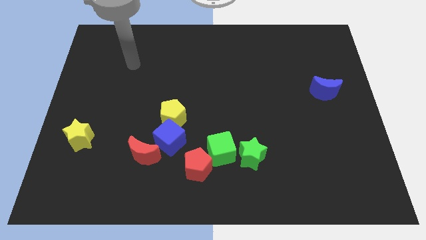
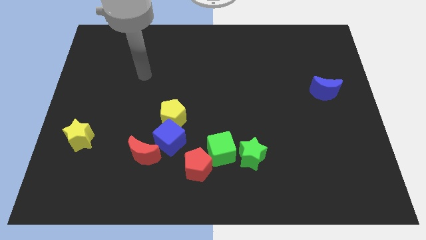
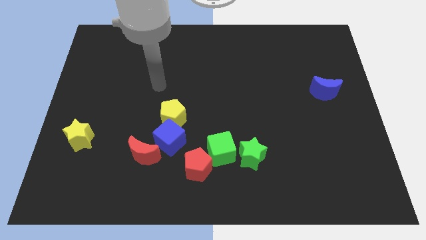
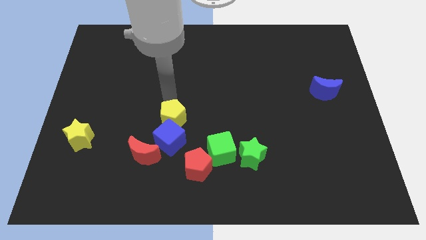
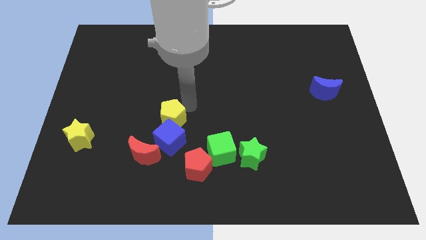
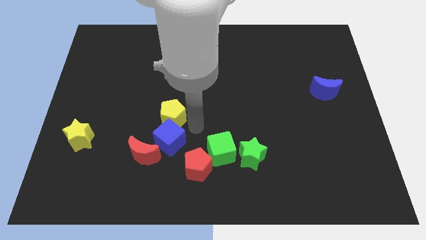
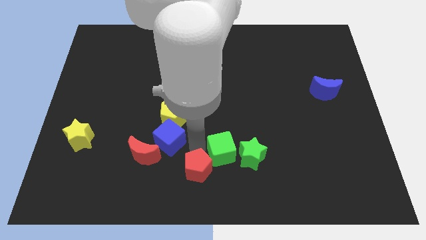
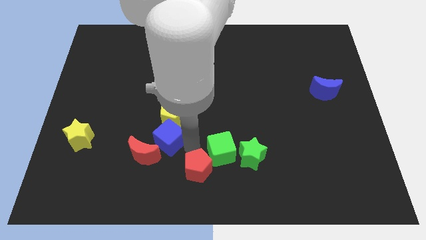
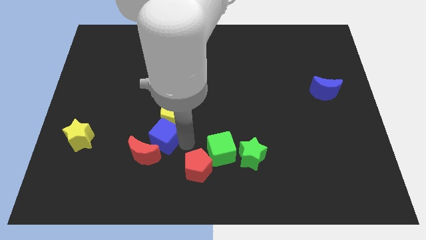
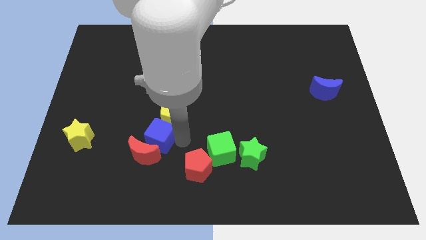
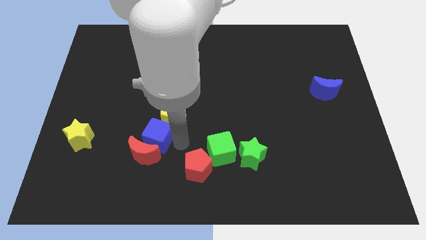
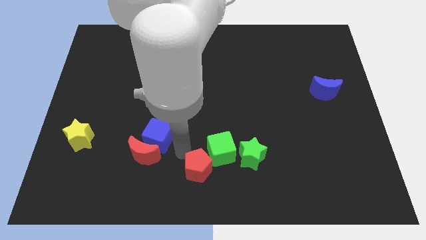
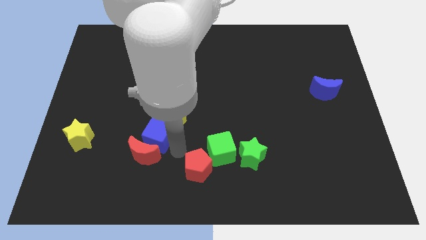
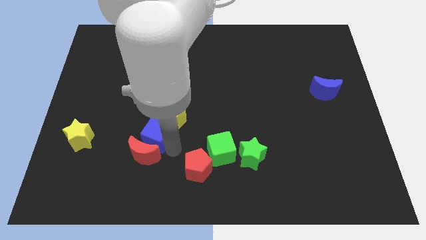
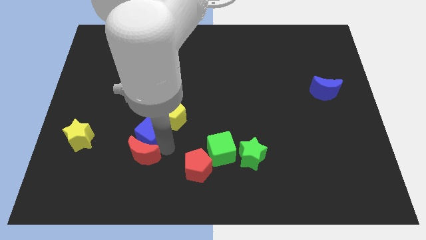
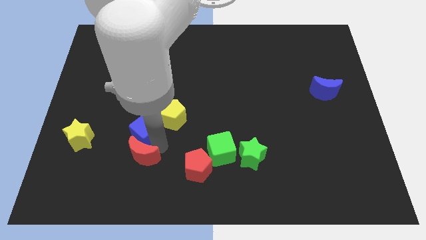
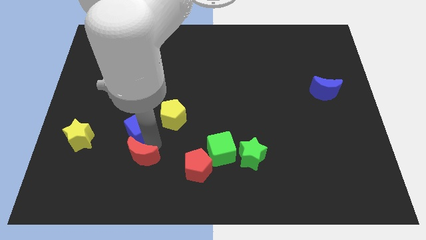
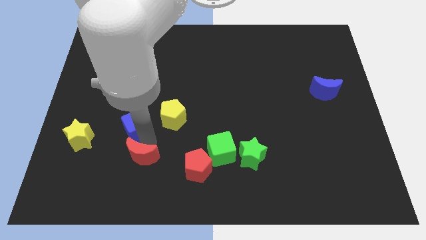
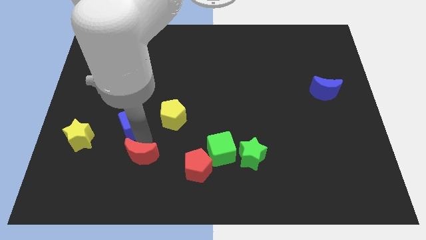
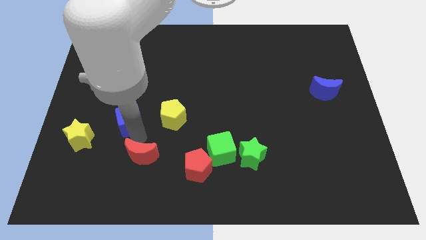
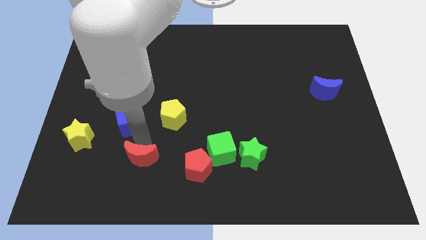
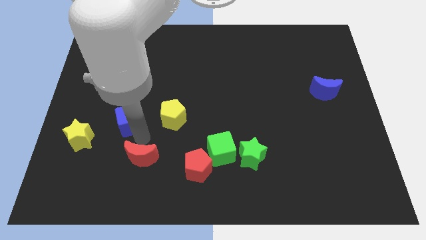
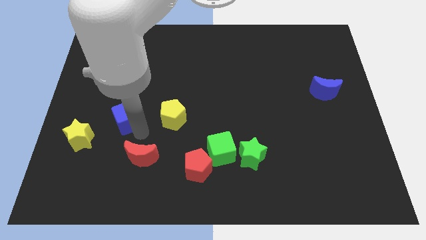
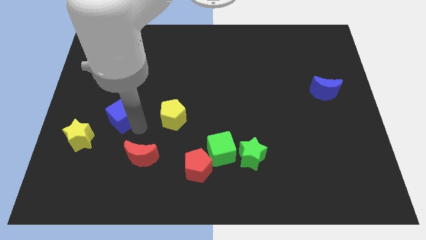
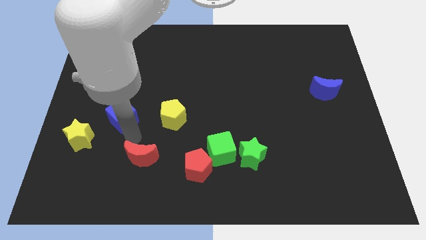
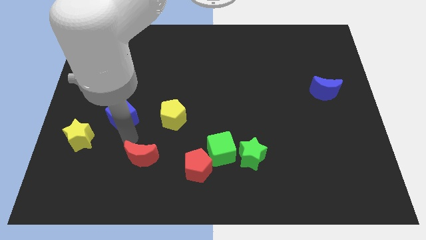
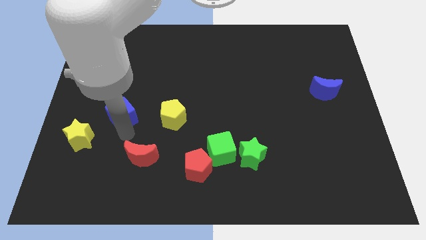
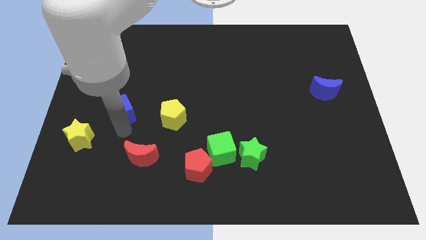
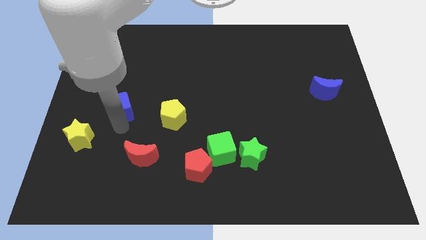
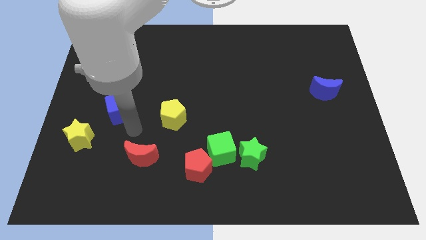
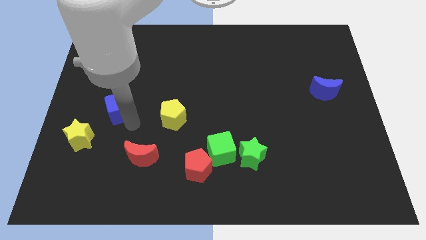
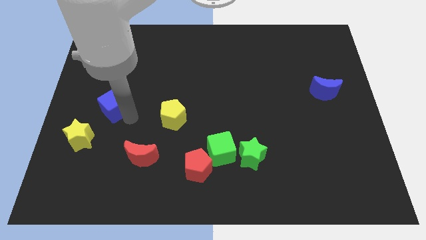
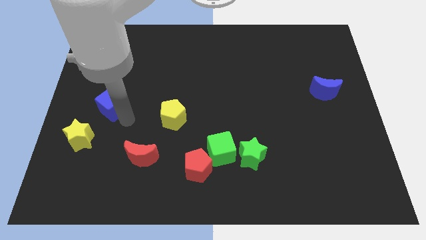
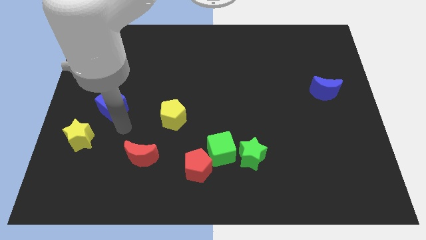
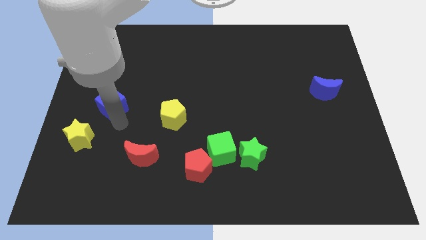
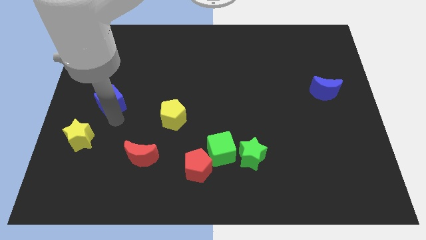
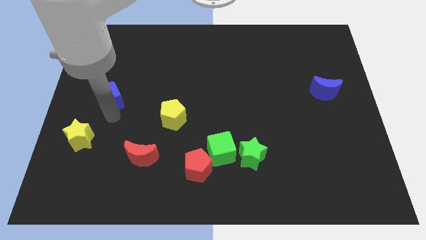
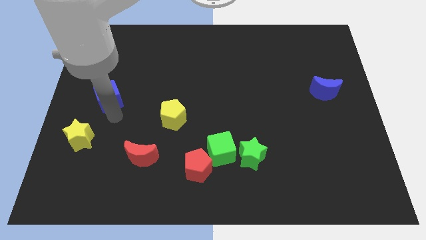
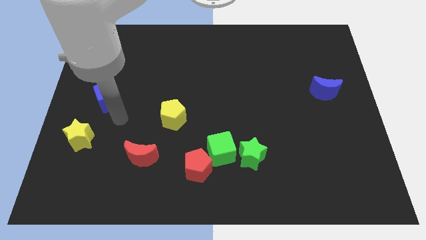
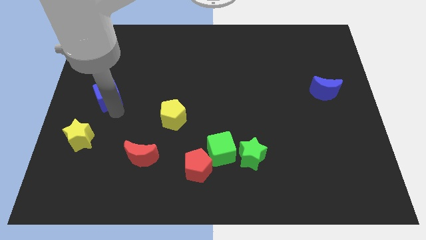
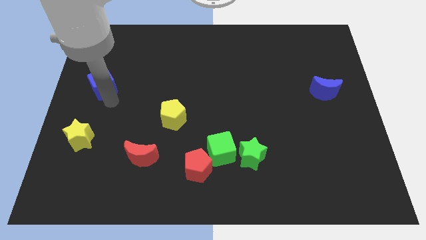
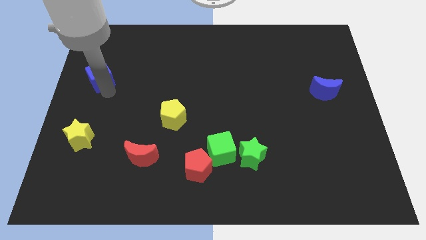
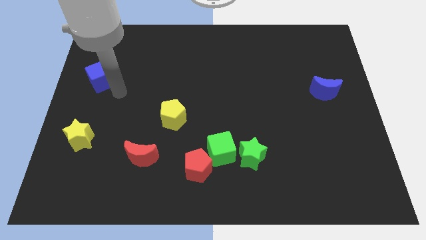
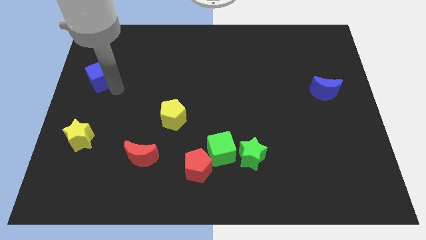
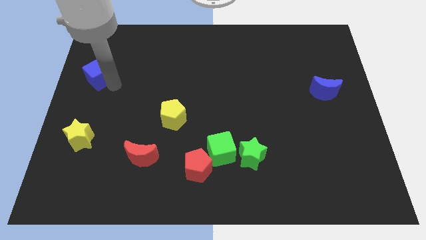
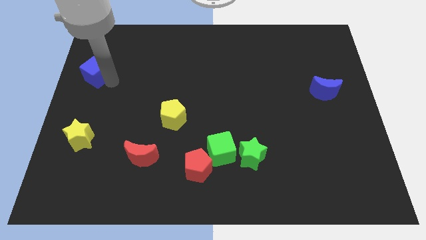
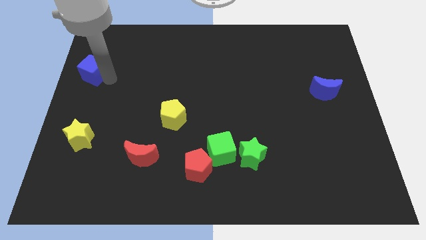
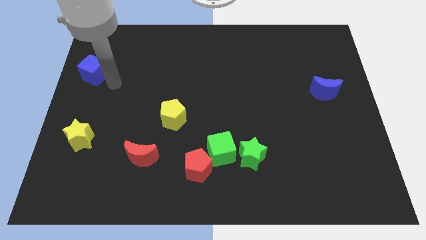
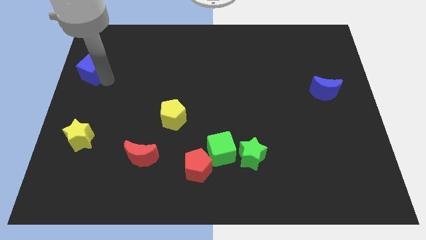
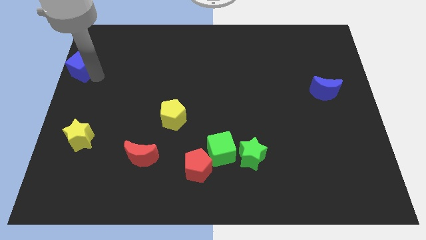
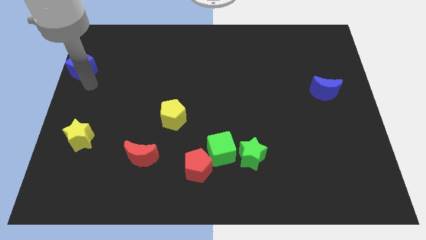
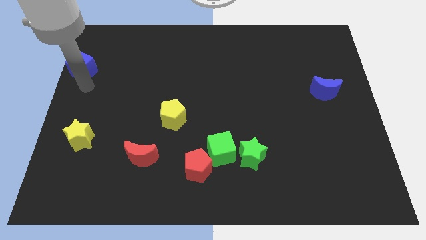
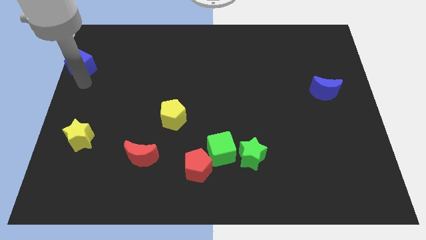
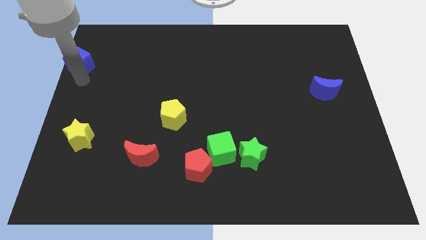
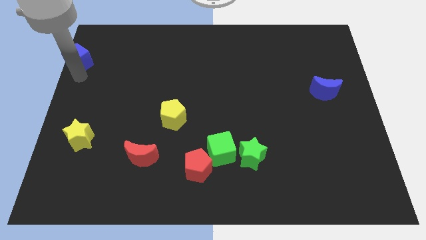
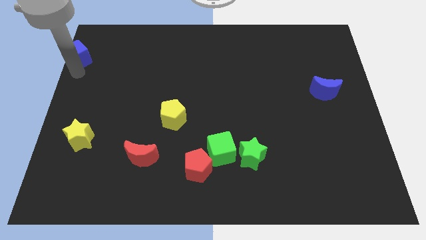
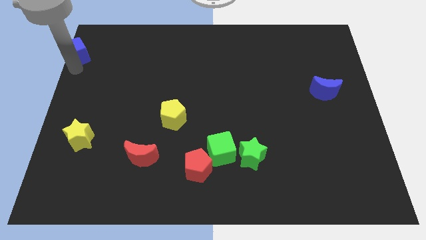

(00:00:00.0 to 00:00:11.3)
move the blue cube to the upper left corner
